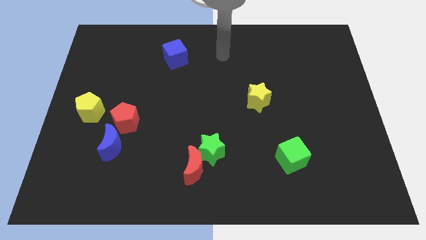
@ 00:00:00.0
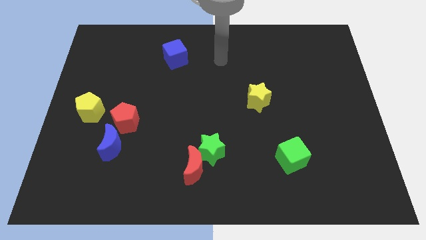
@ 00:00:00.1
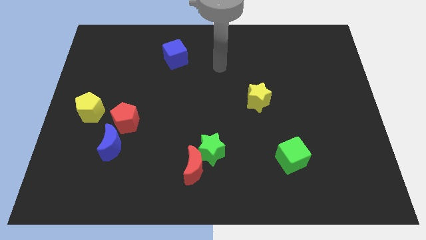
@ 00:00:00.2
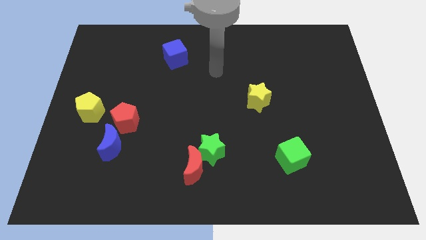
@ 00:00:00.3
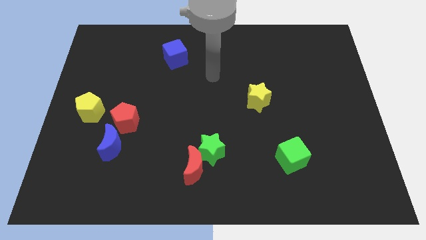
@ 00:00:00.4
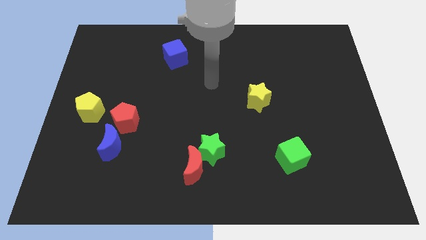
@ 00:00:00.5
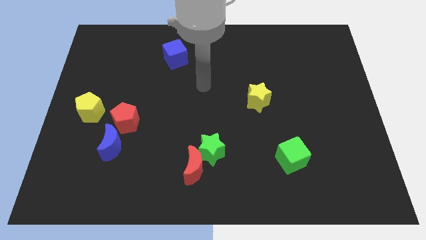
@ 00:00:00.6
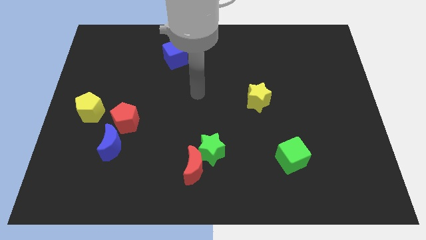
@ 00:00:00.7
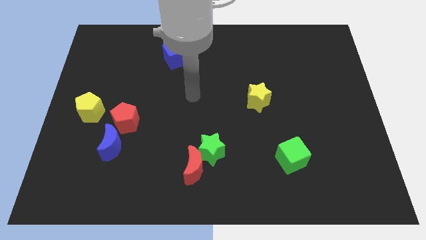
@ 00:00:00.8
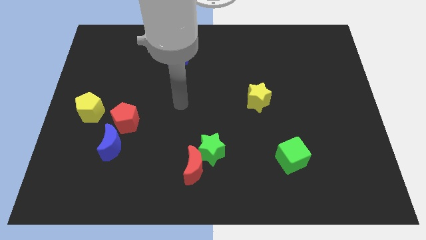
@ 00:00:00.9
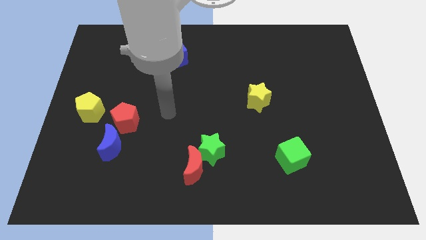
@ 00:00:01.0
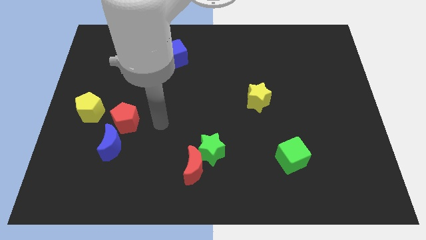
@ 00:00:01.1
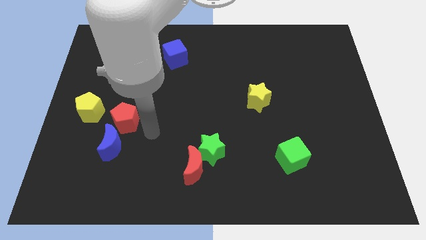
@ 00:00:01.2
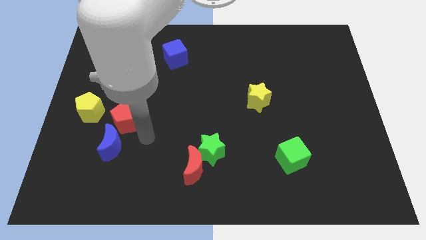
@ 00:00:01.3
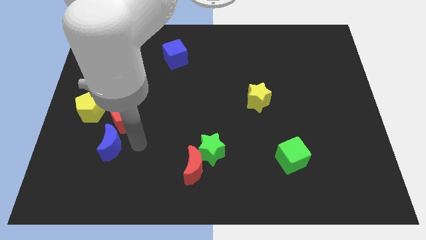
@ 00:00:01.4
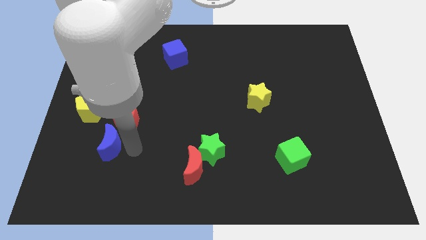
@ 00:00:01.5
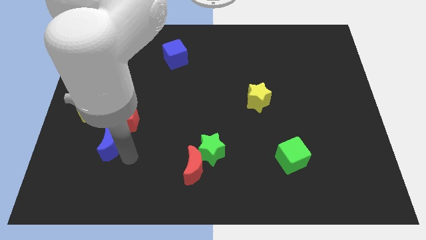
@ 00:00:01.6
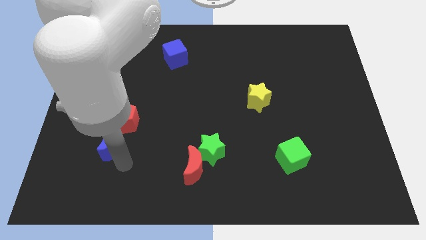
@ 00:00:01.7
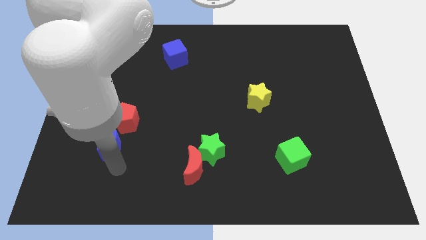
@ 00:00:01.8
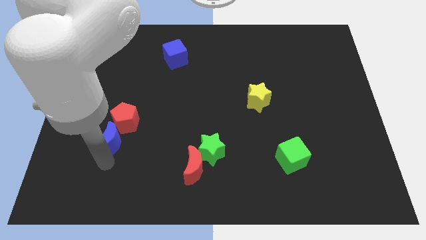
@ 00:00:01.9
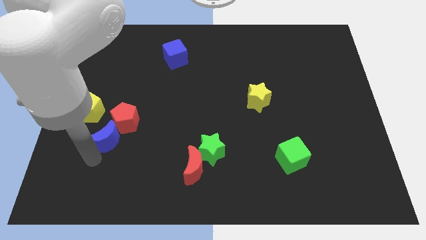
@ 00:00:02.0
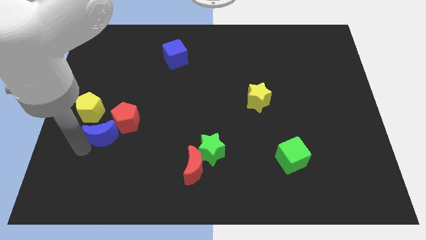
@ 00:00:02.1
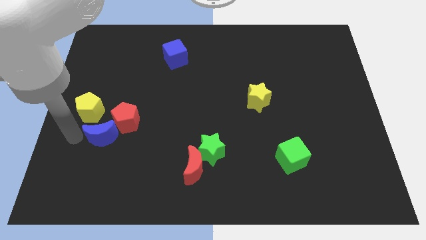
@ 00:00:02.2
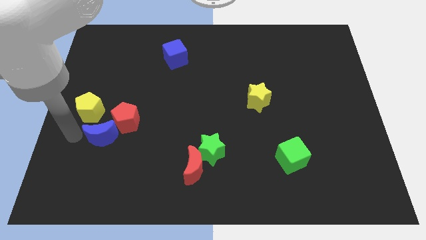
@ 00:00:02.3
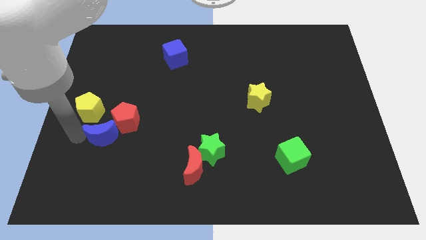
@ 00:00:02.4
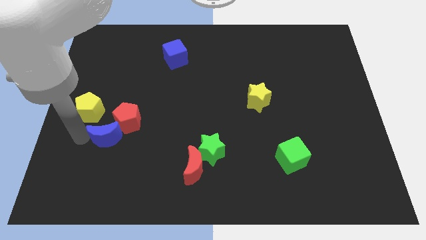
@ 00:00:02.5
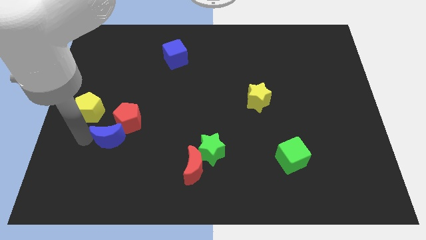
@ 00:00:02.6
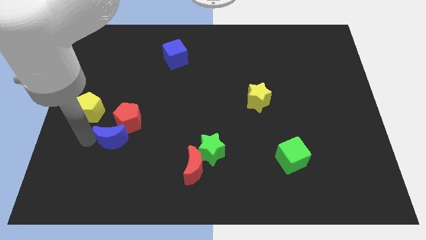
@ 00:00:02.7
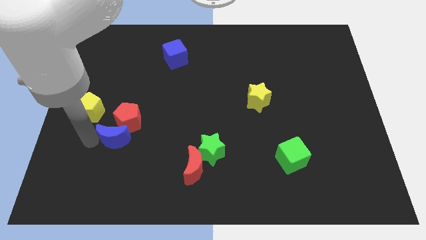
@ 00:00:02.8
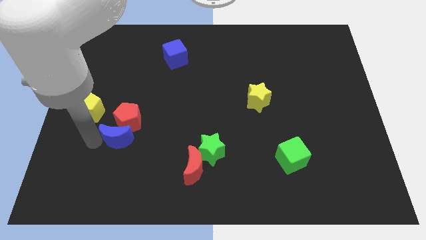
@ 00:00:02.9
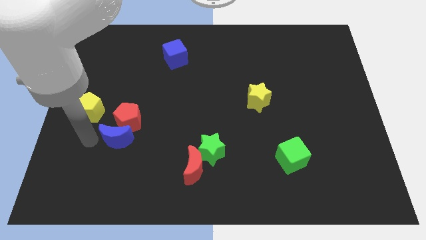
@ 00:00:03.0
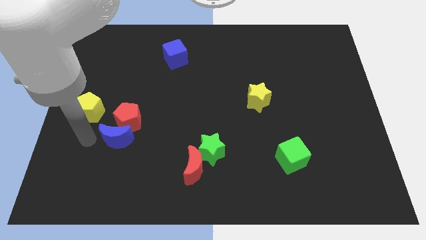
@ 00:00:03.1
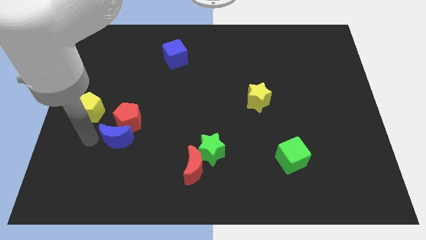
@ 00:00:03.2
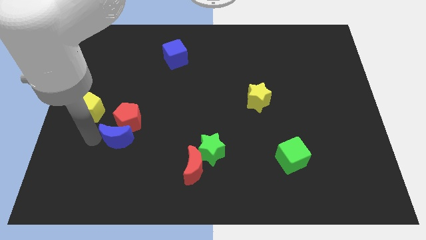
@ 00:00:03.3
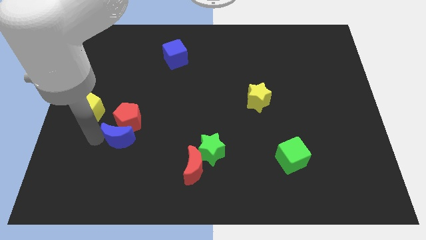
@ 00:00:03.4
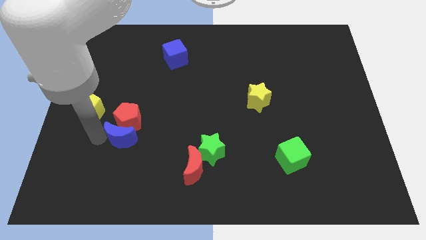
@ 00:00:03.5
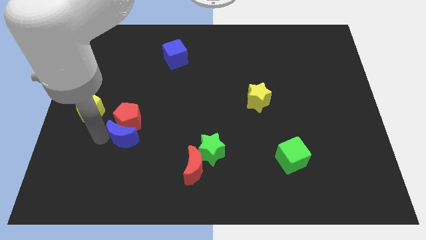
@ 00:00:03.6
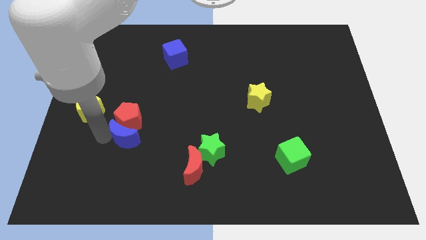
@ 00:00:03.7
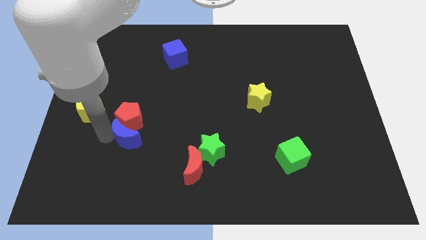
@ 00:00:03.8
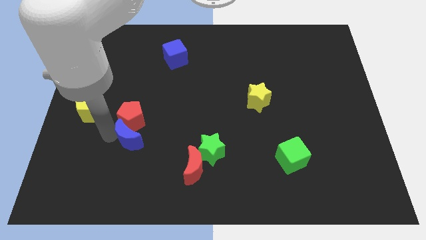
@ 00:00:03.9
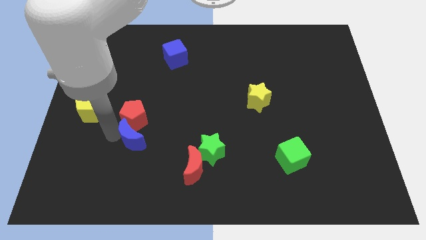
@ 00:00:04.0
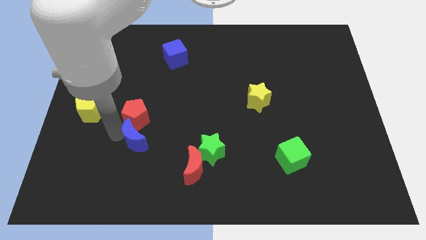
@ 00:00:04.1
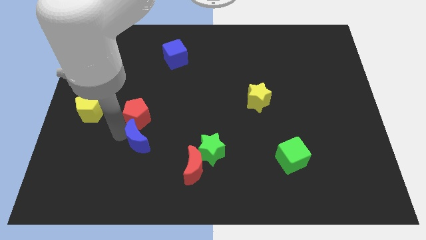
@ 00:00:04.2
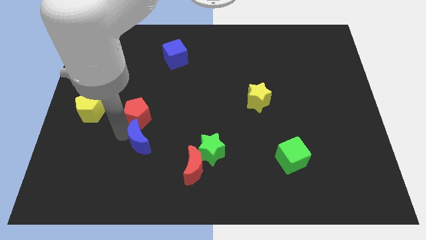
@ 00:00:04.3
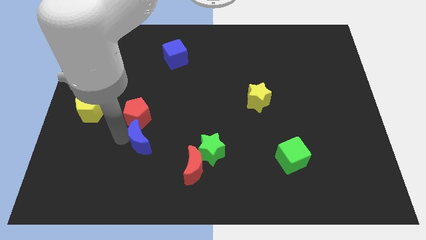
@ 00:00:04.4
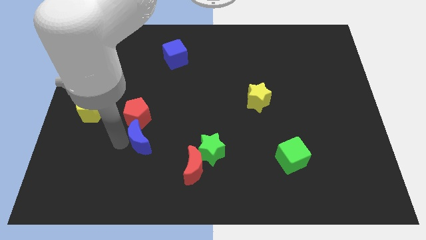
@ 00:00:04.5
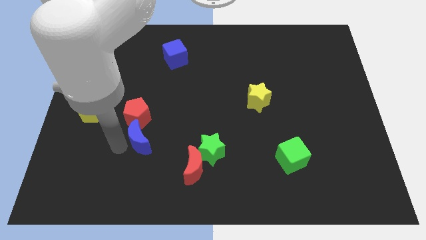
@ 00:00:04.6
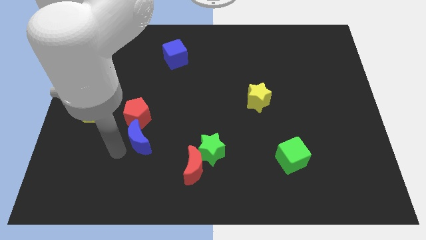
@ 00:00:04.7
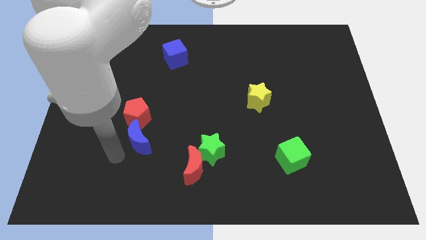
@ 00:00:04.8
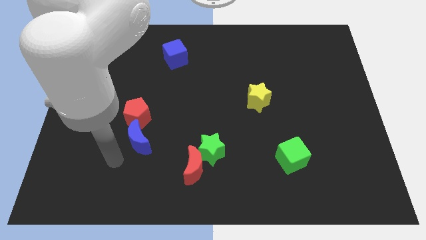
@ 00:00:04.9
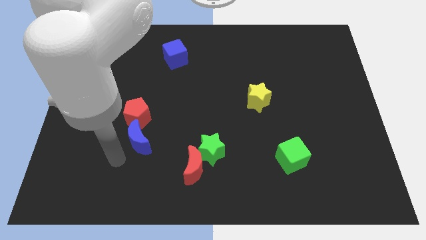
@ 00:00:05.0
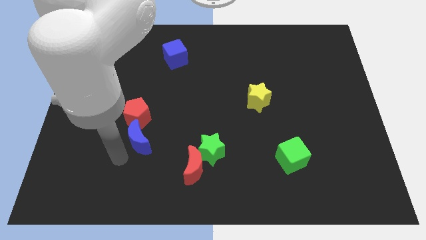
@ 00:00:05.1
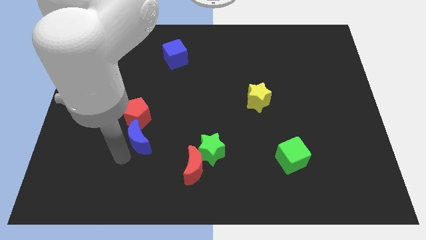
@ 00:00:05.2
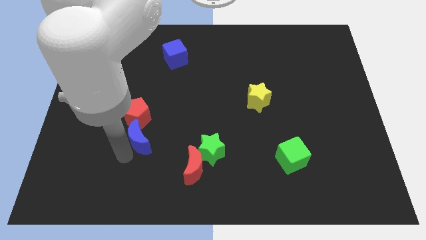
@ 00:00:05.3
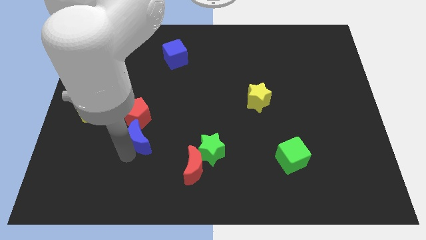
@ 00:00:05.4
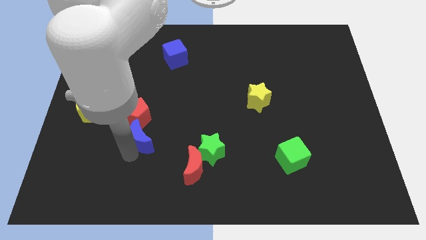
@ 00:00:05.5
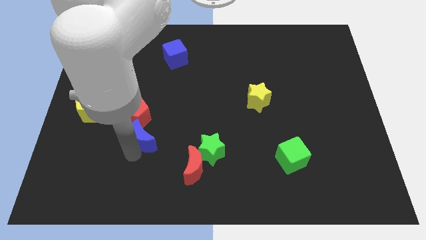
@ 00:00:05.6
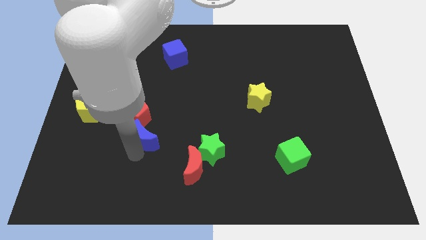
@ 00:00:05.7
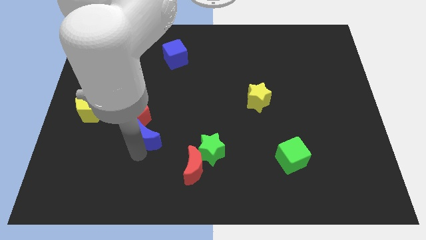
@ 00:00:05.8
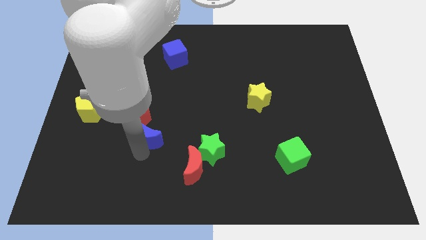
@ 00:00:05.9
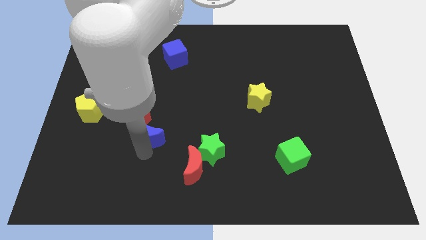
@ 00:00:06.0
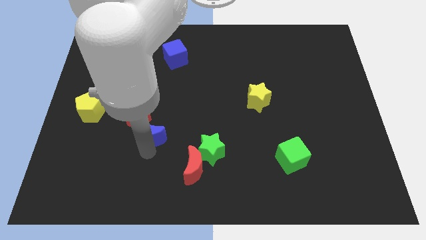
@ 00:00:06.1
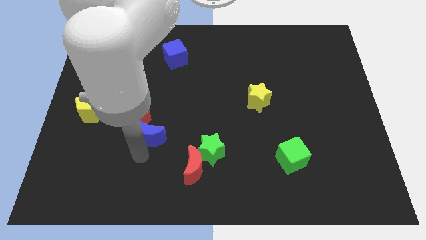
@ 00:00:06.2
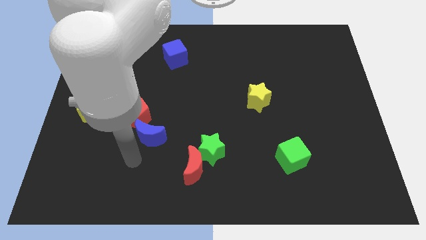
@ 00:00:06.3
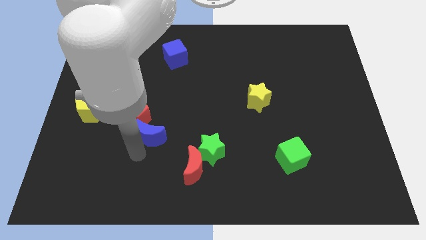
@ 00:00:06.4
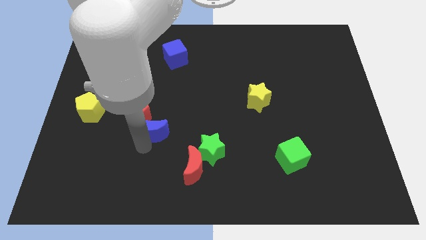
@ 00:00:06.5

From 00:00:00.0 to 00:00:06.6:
slightly push the blue moon diagonally upwards and right

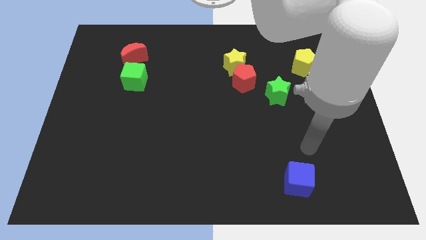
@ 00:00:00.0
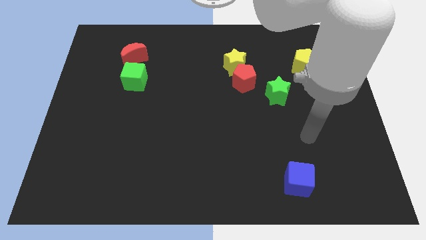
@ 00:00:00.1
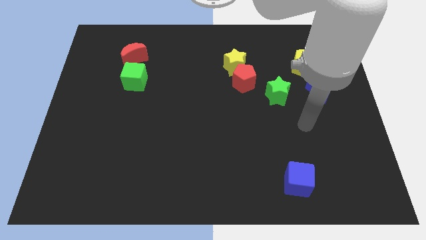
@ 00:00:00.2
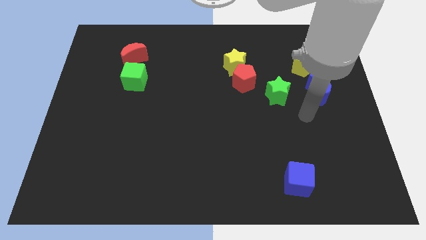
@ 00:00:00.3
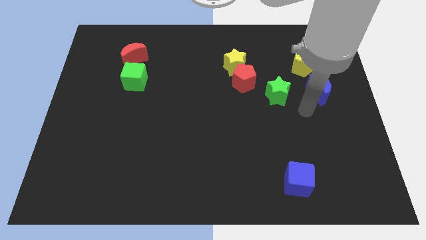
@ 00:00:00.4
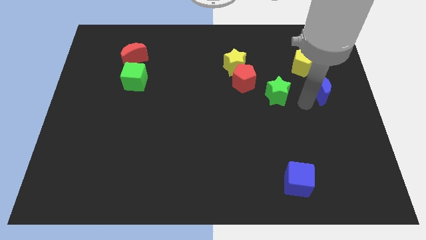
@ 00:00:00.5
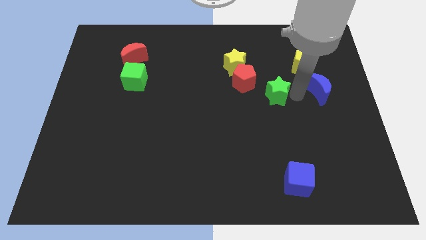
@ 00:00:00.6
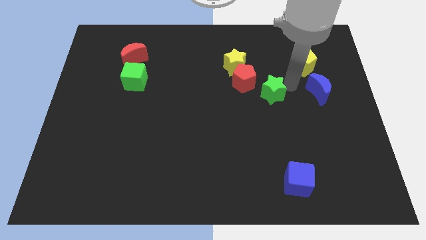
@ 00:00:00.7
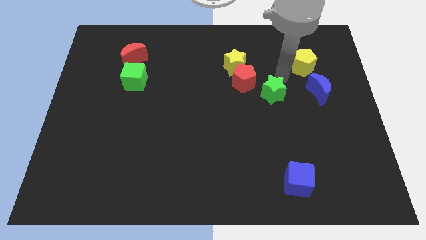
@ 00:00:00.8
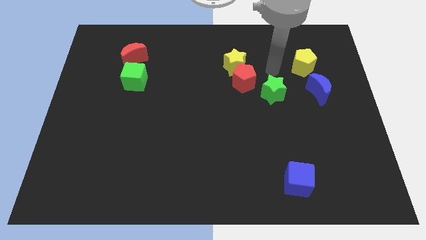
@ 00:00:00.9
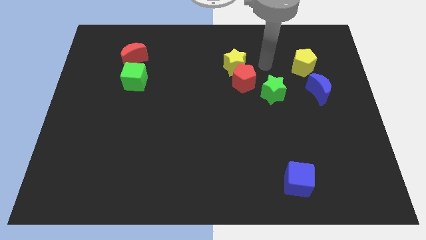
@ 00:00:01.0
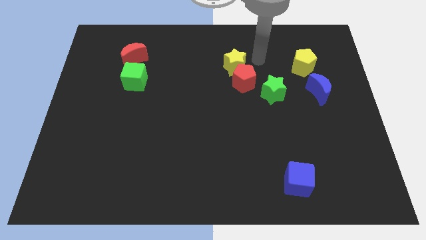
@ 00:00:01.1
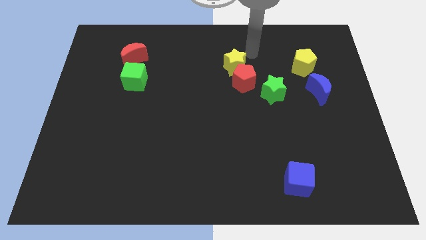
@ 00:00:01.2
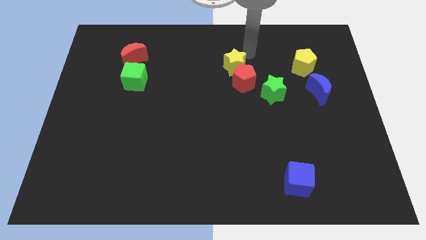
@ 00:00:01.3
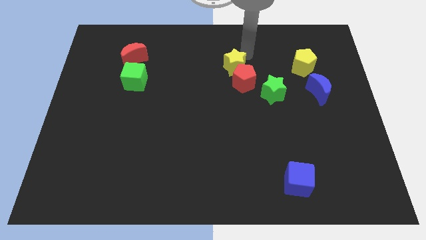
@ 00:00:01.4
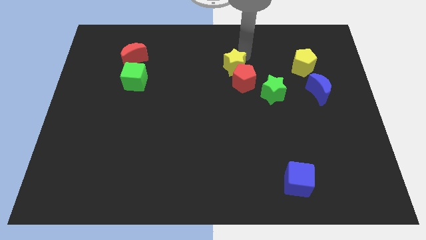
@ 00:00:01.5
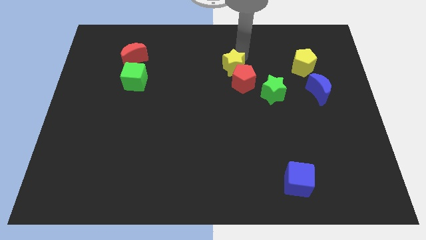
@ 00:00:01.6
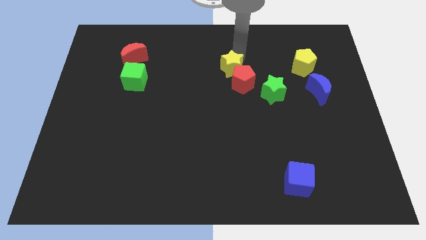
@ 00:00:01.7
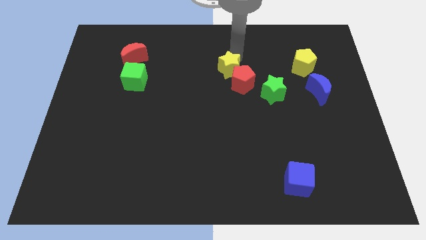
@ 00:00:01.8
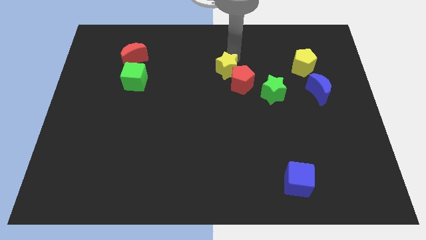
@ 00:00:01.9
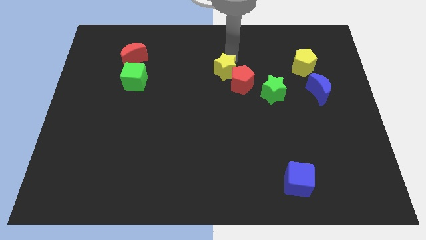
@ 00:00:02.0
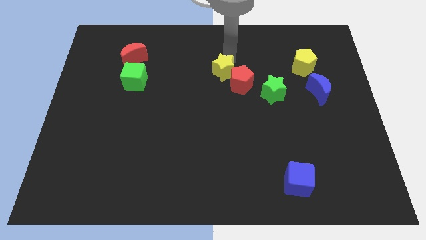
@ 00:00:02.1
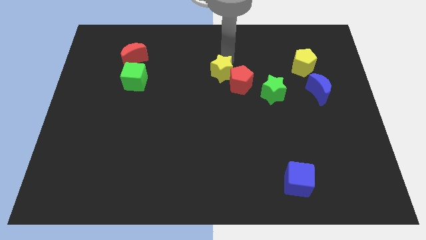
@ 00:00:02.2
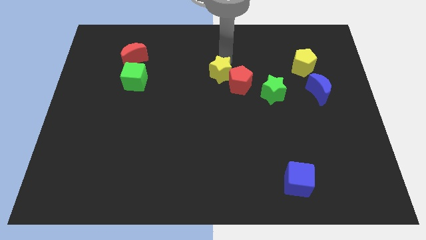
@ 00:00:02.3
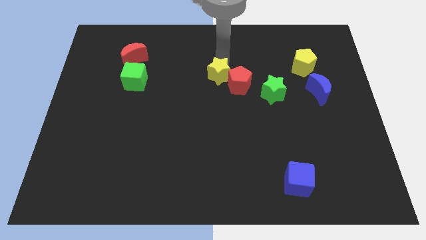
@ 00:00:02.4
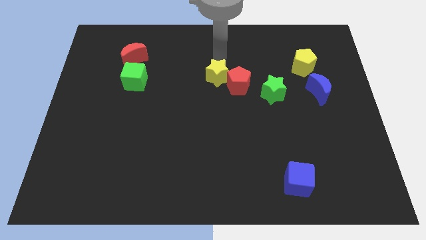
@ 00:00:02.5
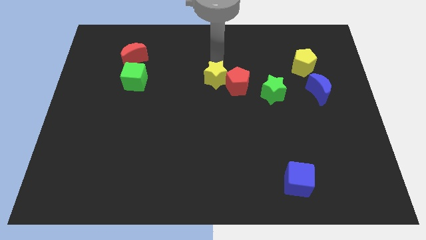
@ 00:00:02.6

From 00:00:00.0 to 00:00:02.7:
slightly move the yellow star diagonally downwards and to the left
